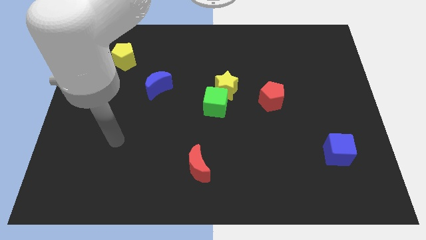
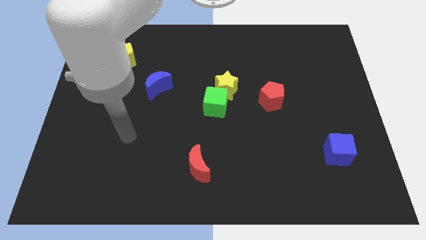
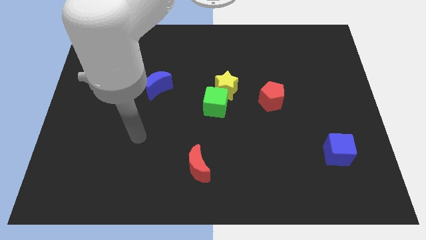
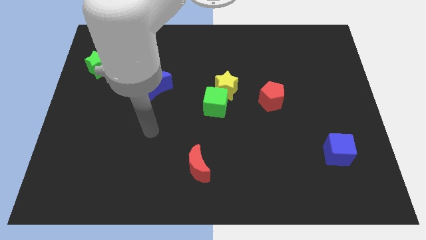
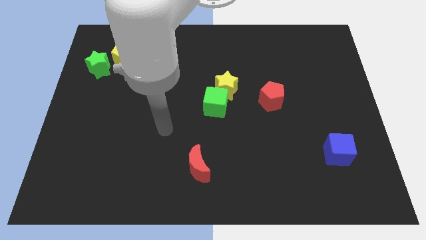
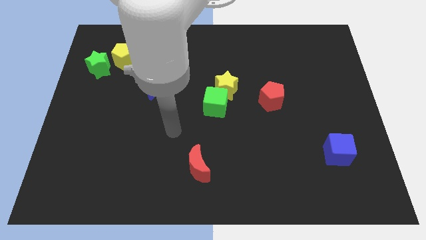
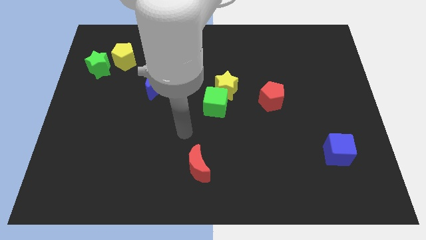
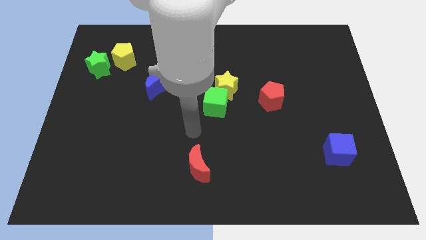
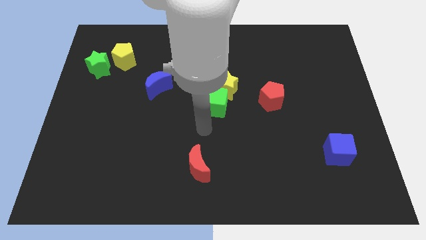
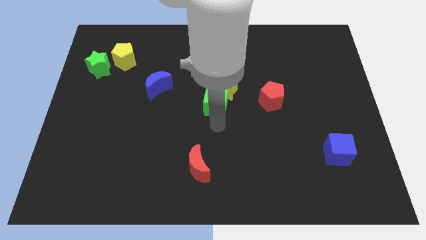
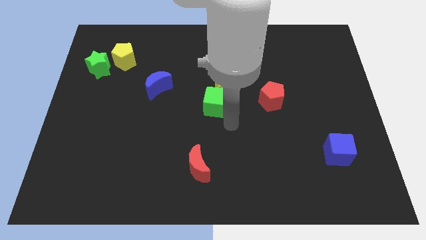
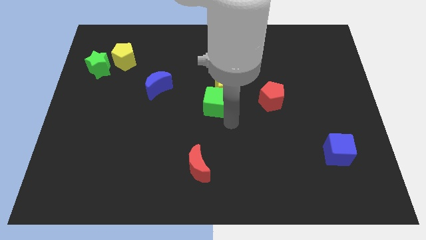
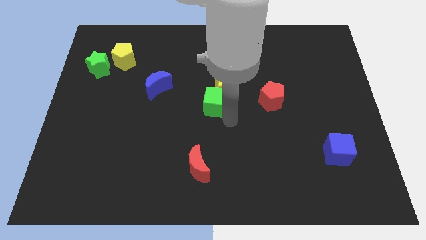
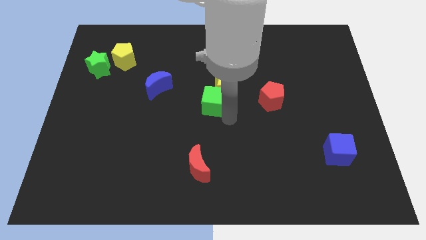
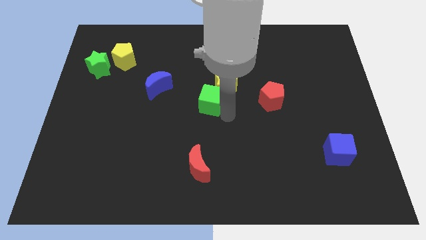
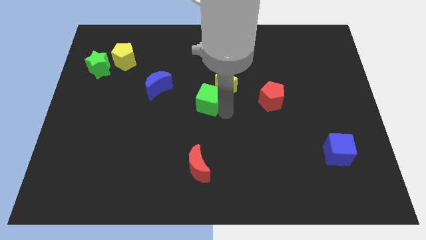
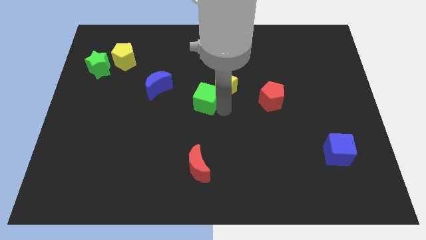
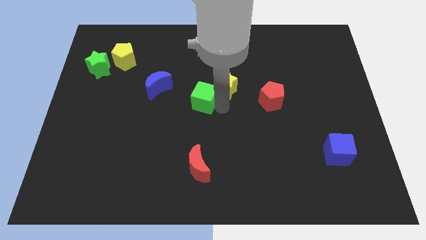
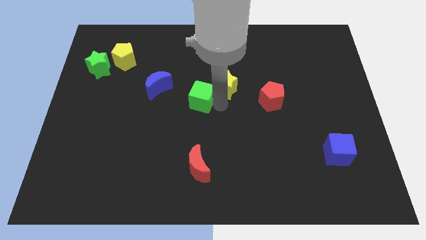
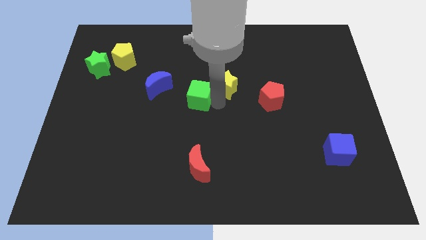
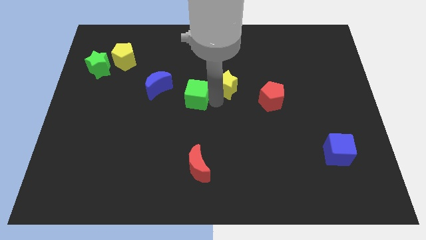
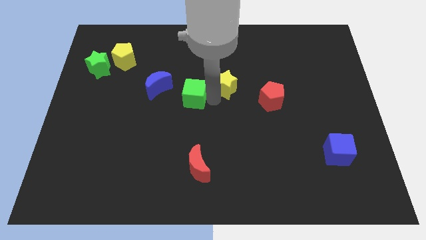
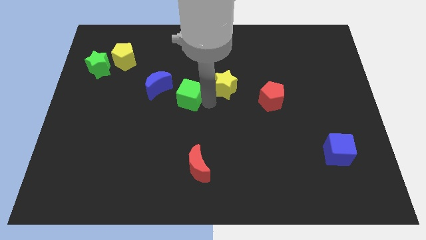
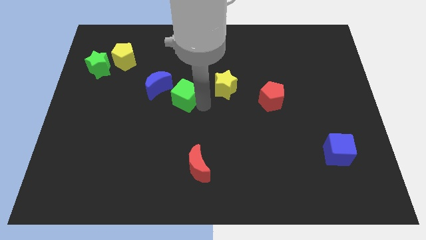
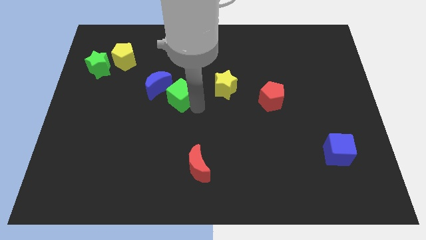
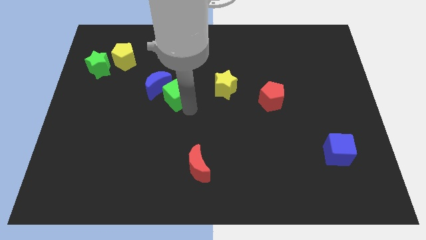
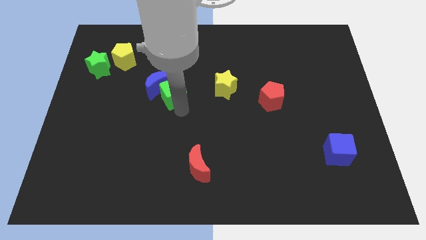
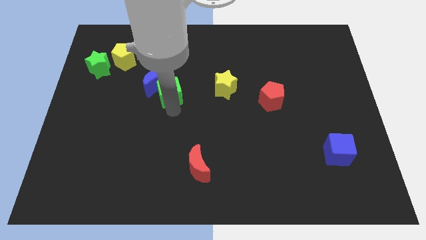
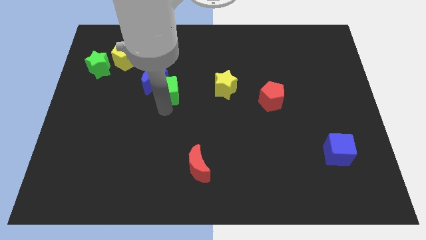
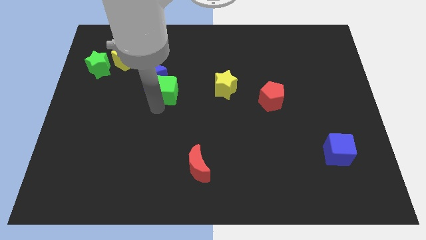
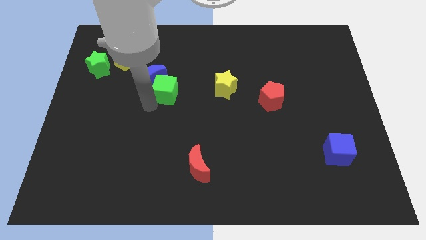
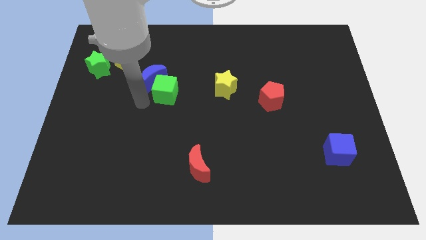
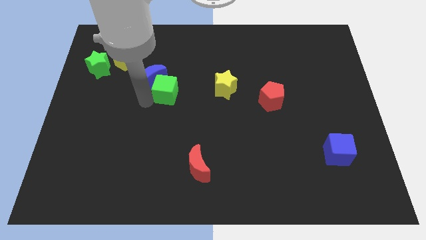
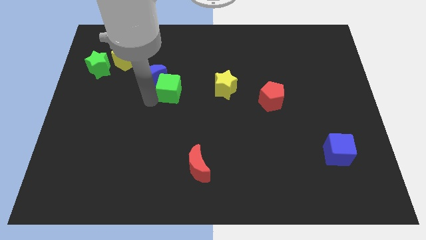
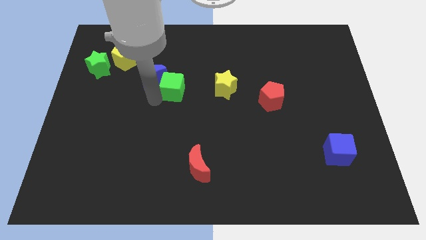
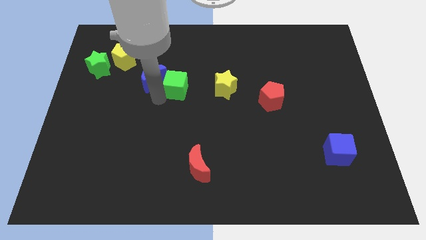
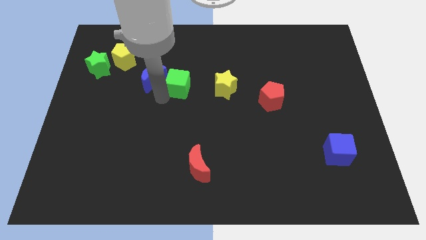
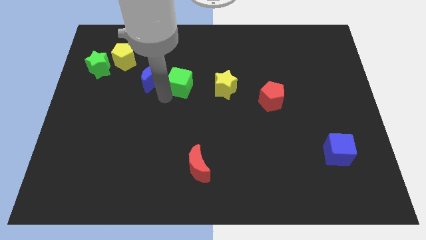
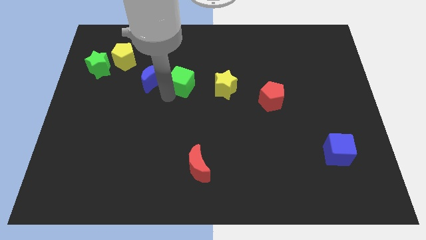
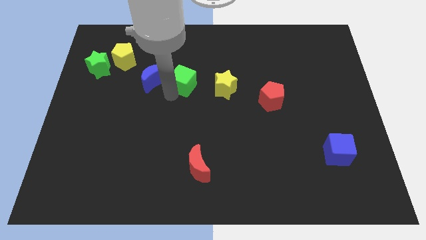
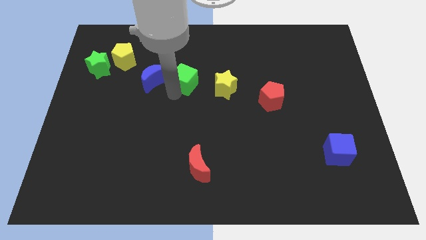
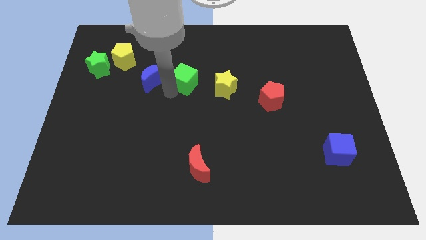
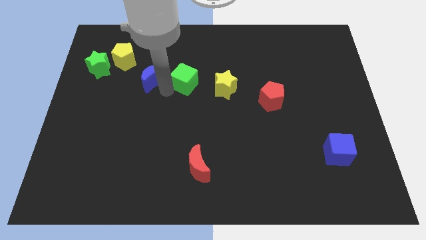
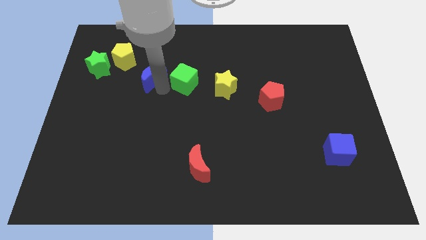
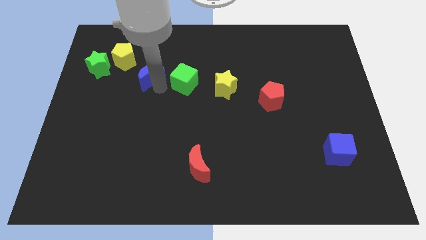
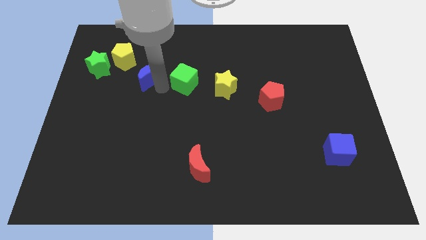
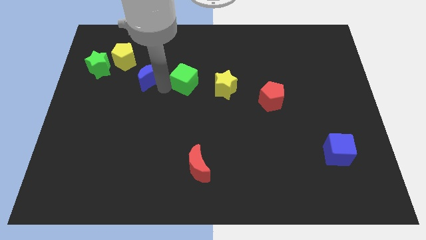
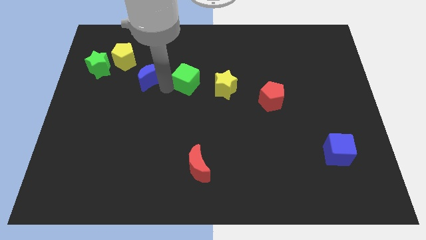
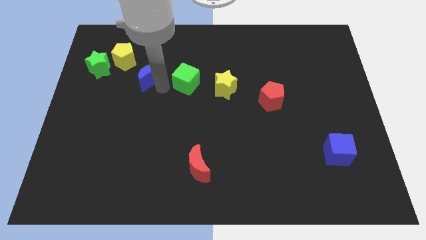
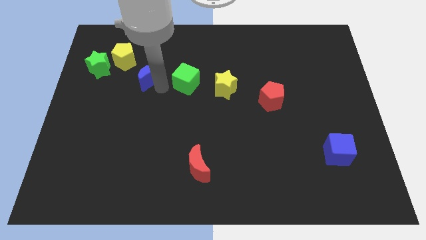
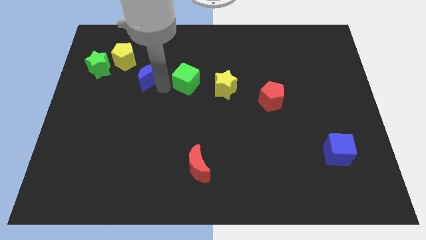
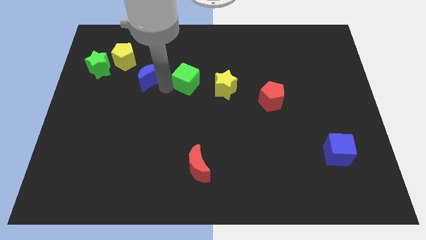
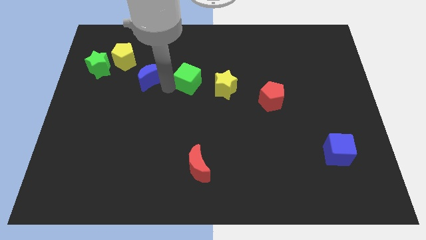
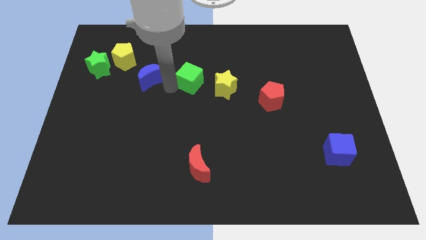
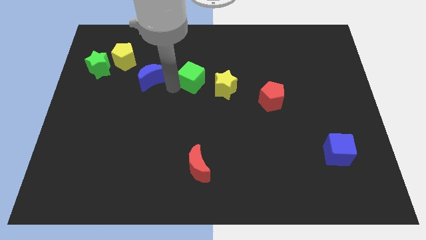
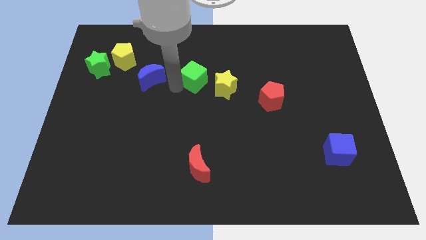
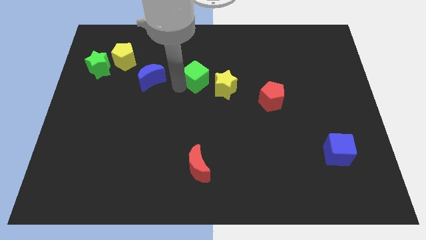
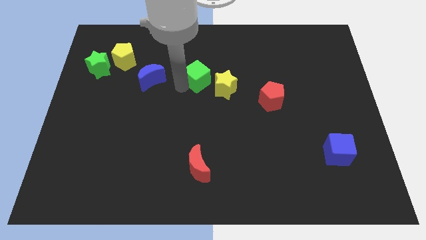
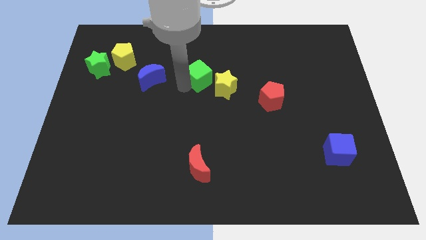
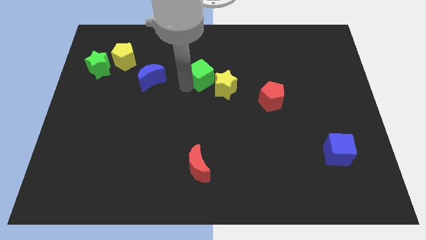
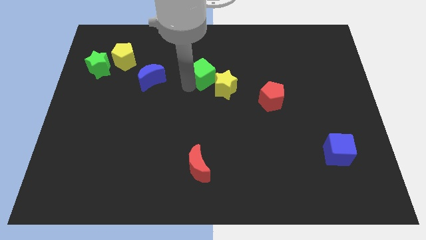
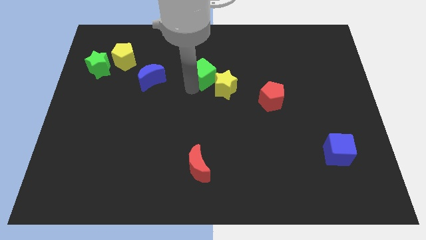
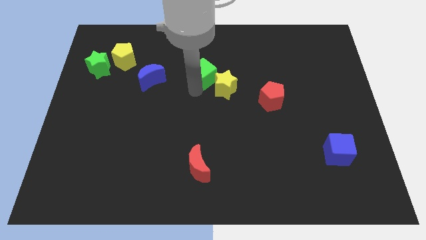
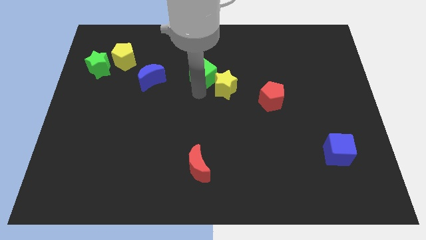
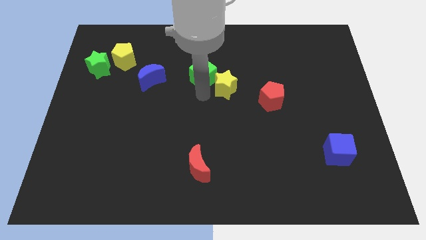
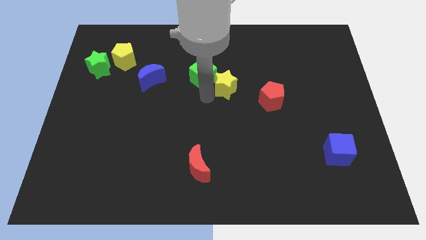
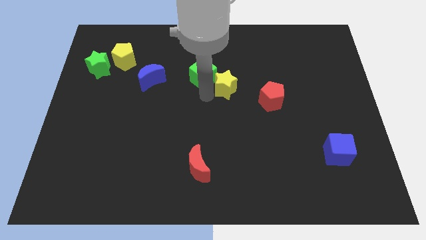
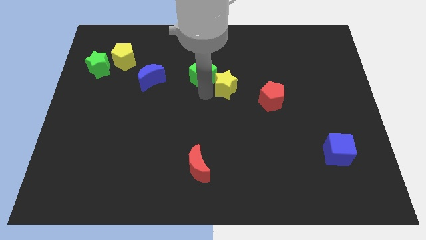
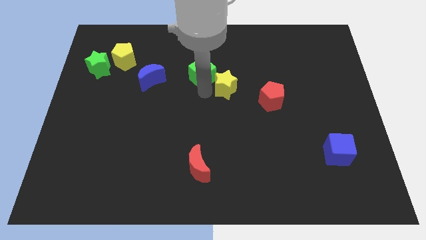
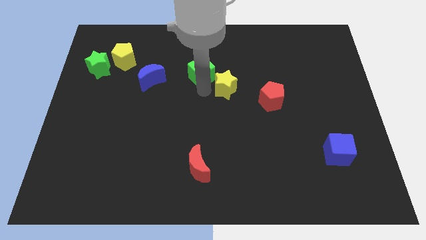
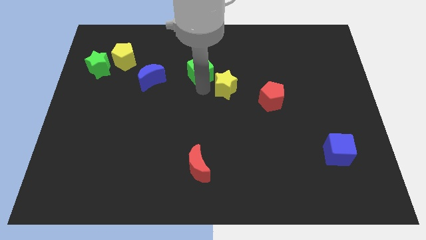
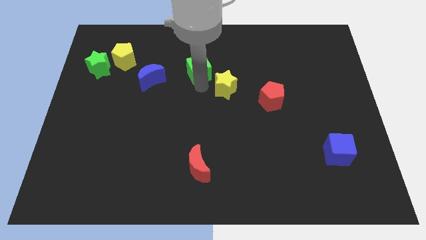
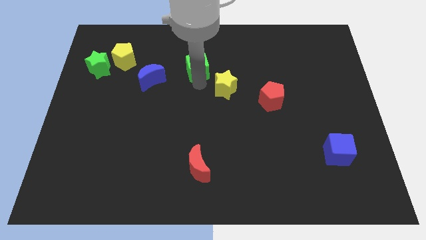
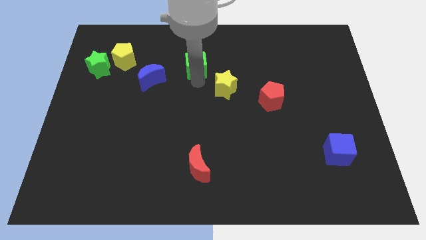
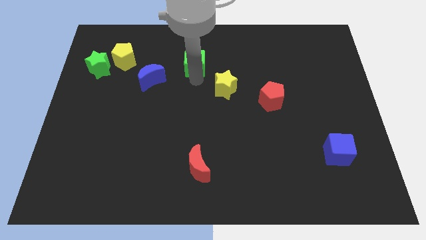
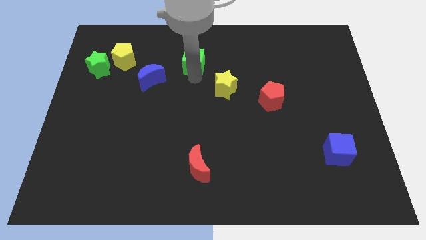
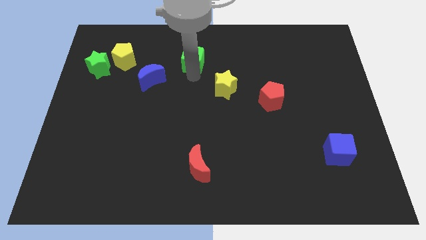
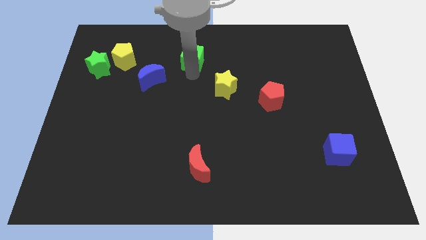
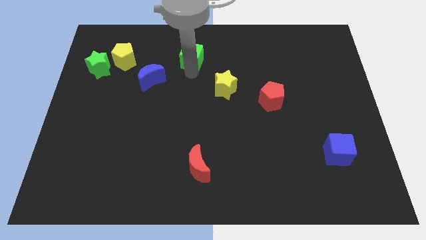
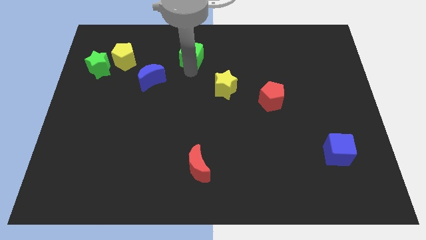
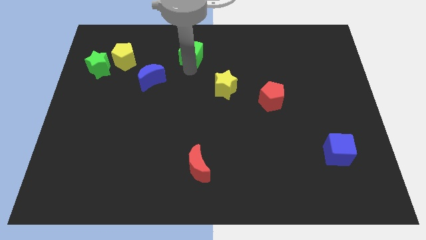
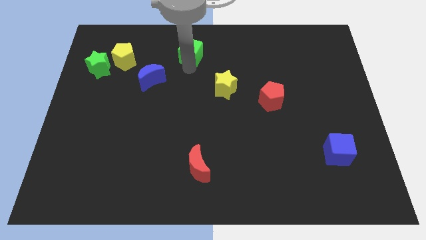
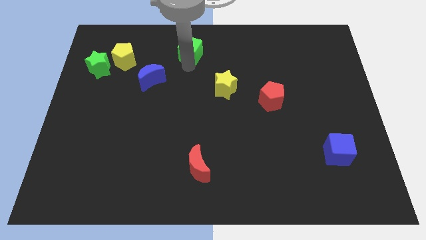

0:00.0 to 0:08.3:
move the green cube to the top side
